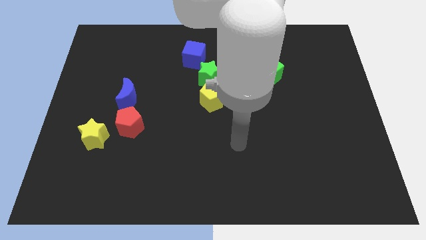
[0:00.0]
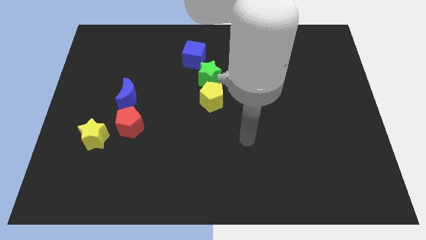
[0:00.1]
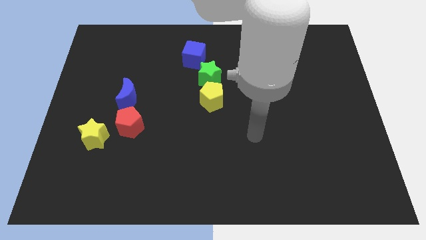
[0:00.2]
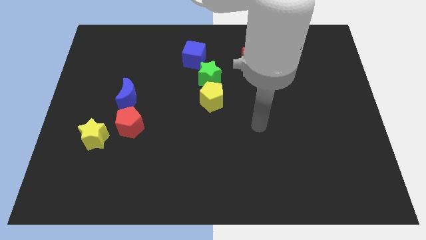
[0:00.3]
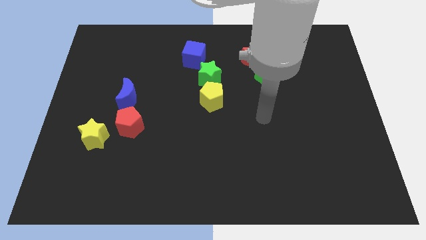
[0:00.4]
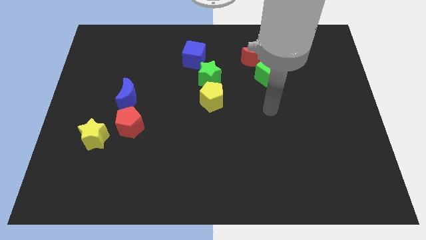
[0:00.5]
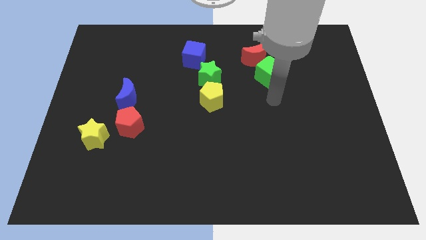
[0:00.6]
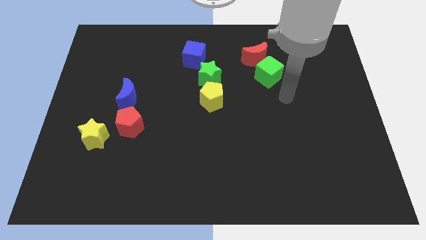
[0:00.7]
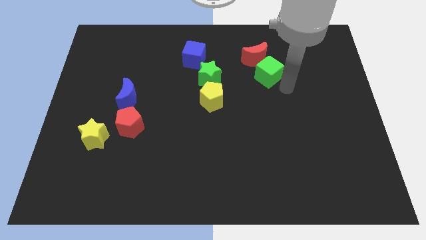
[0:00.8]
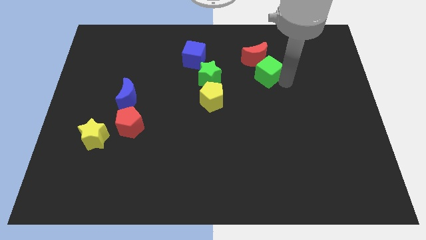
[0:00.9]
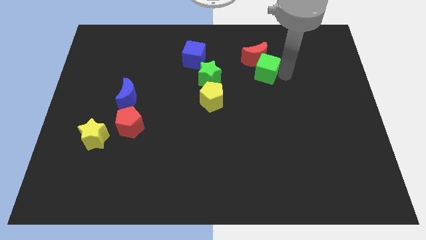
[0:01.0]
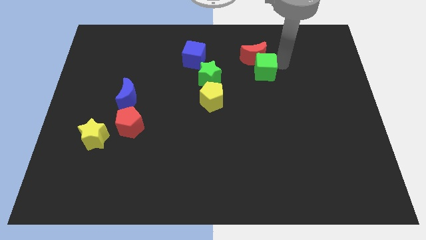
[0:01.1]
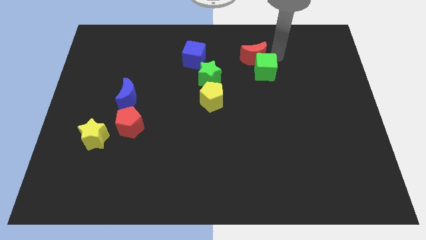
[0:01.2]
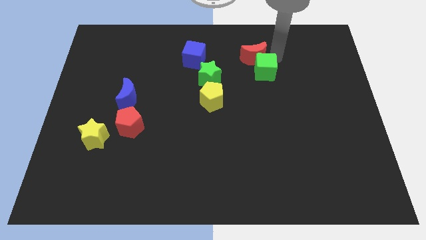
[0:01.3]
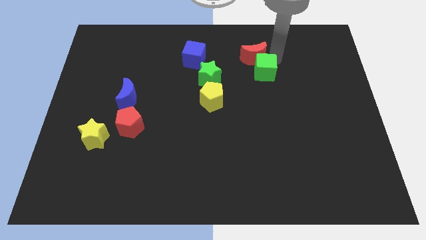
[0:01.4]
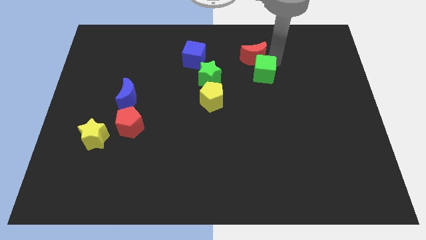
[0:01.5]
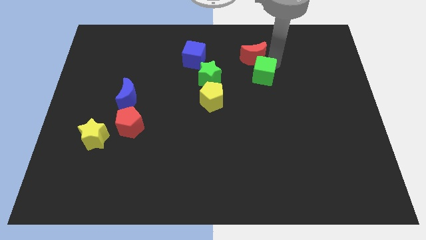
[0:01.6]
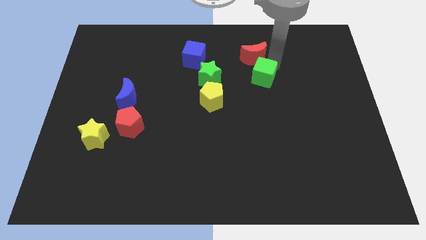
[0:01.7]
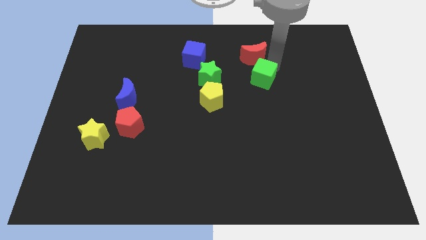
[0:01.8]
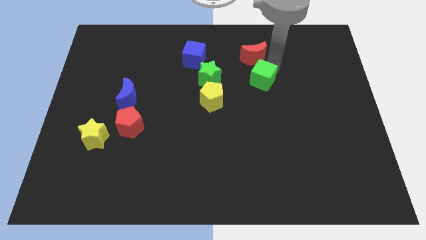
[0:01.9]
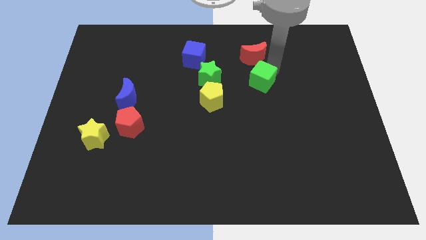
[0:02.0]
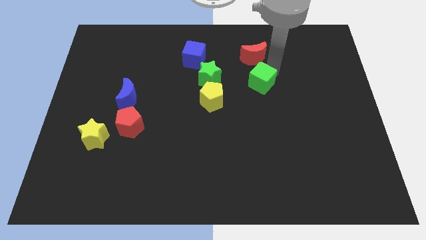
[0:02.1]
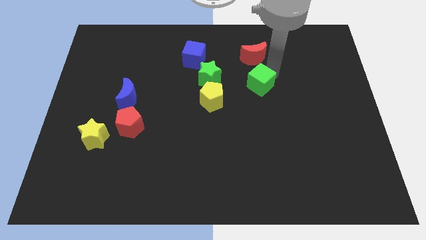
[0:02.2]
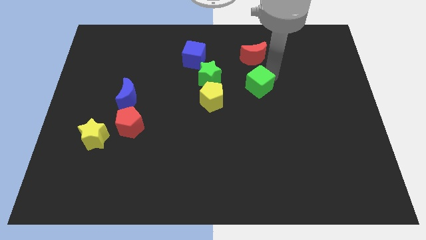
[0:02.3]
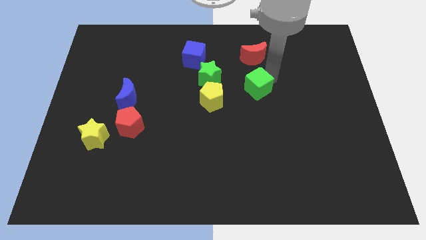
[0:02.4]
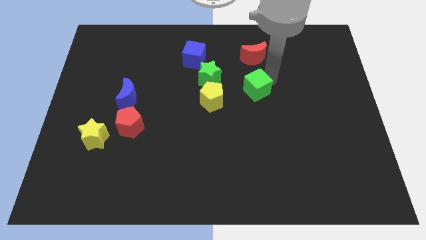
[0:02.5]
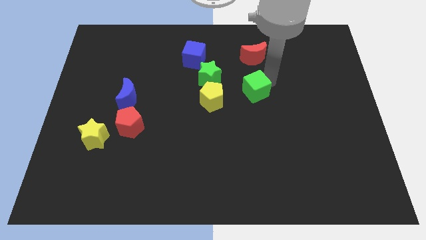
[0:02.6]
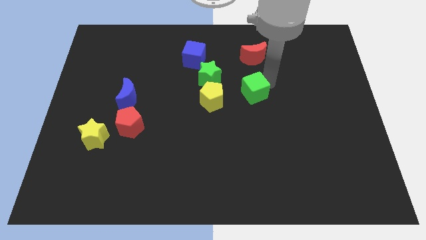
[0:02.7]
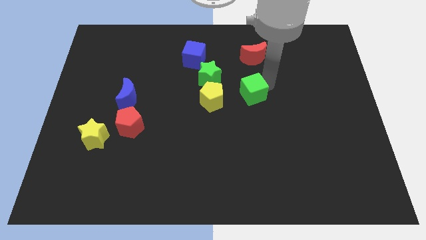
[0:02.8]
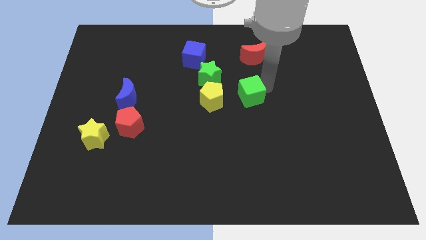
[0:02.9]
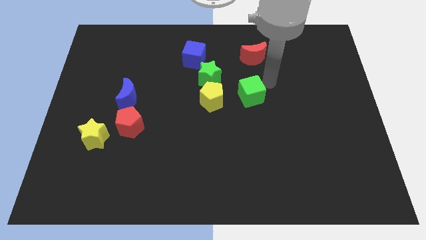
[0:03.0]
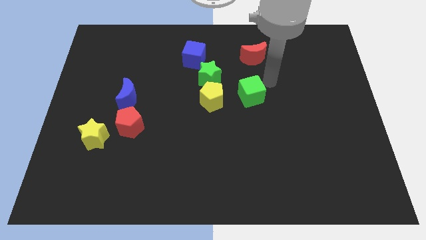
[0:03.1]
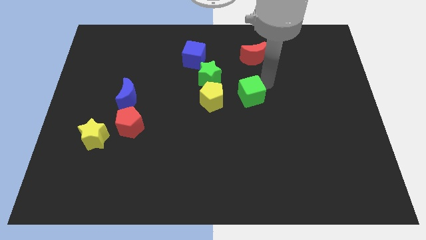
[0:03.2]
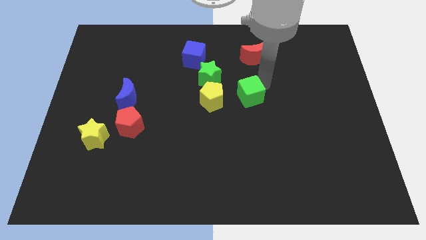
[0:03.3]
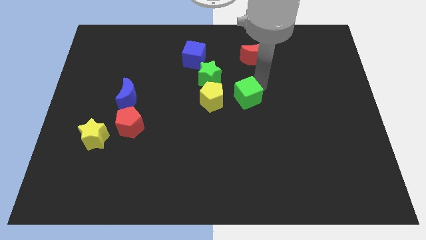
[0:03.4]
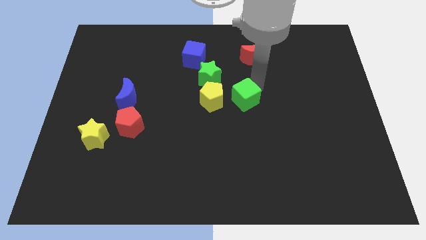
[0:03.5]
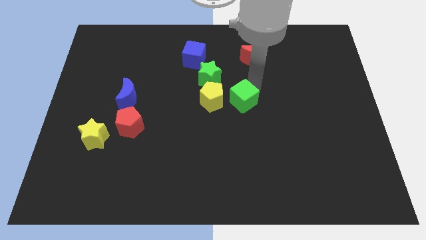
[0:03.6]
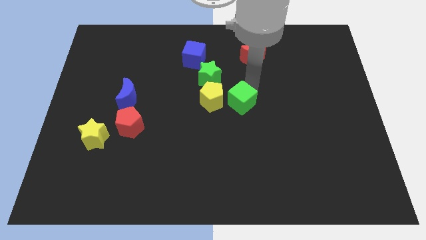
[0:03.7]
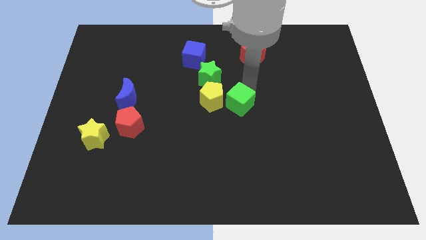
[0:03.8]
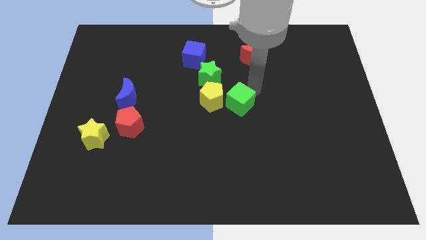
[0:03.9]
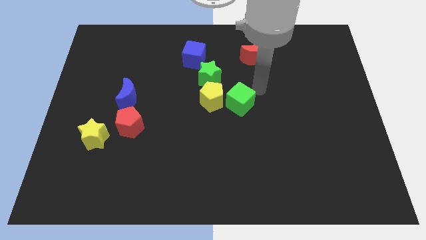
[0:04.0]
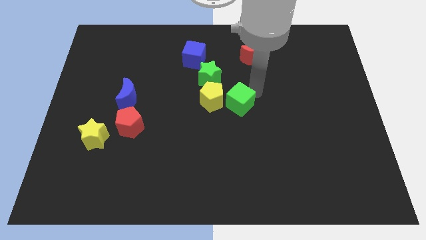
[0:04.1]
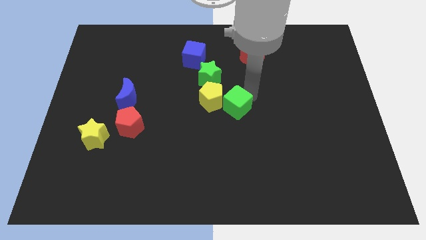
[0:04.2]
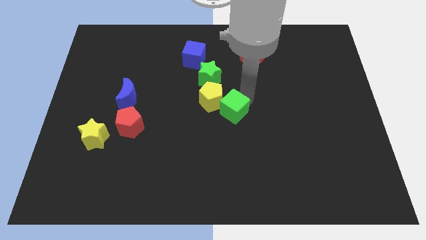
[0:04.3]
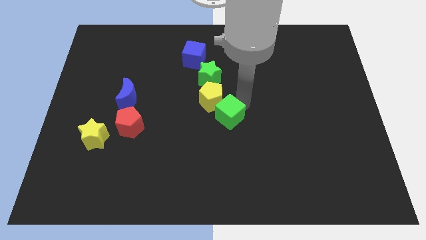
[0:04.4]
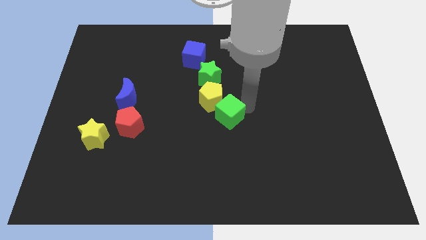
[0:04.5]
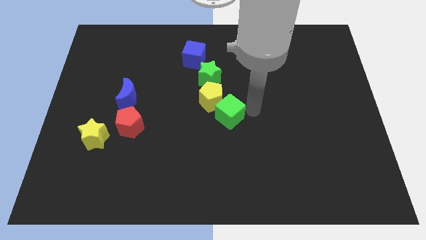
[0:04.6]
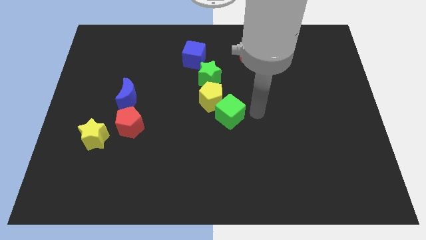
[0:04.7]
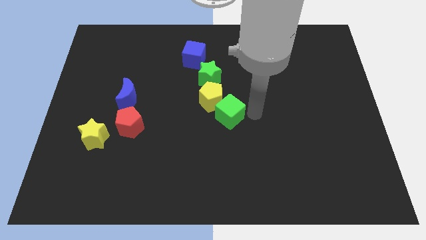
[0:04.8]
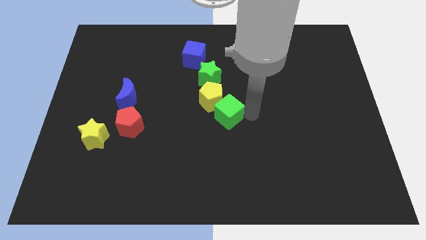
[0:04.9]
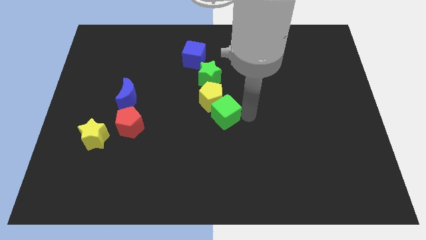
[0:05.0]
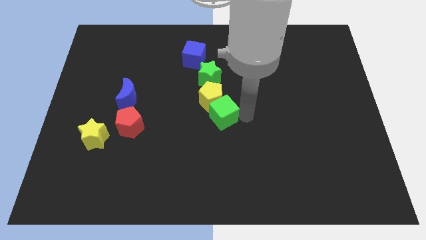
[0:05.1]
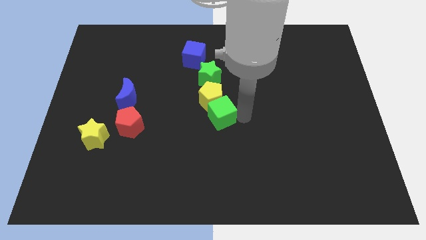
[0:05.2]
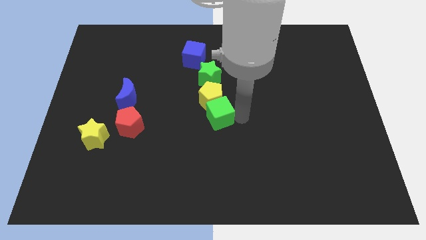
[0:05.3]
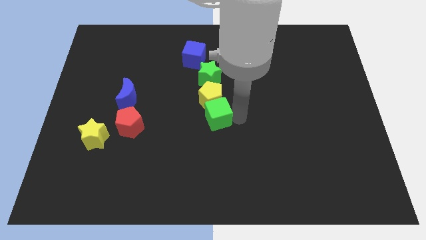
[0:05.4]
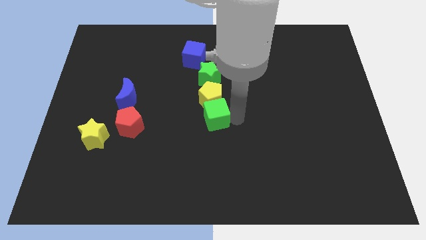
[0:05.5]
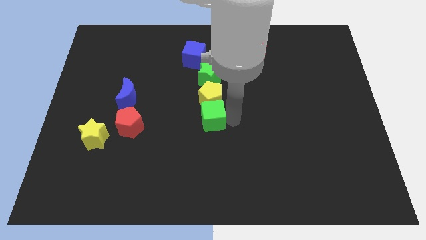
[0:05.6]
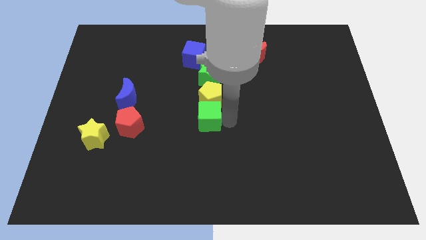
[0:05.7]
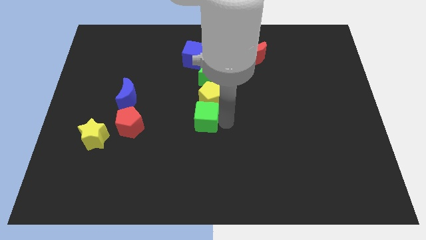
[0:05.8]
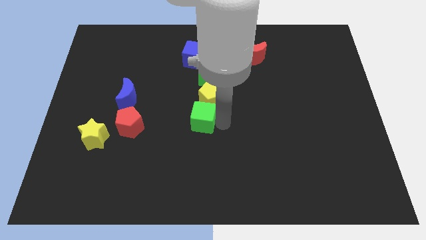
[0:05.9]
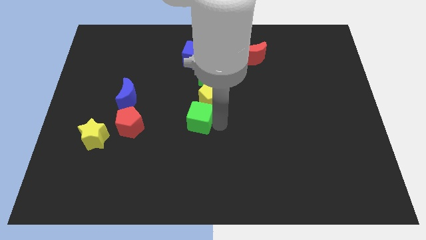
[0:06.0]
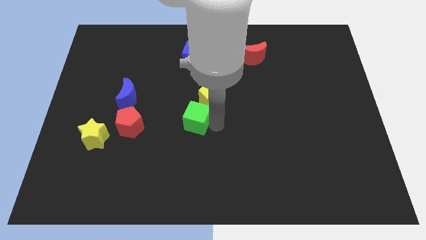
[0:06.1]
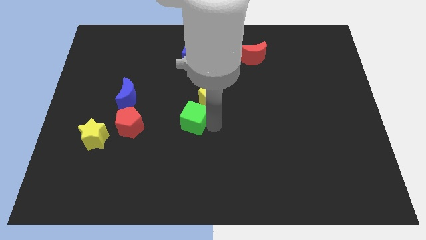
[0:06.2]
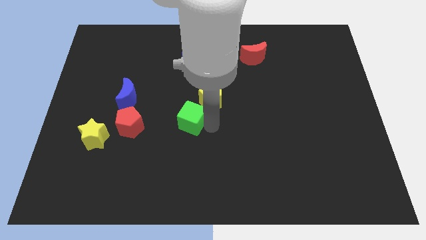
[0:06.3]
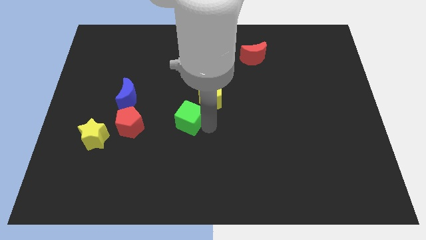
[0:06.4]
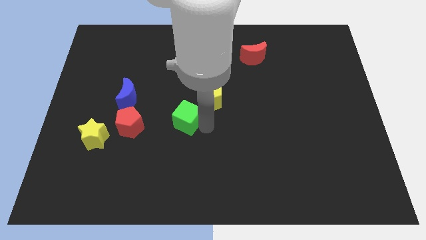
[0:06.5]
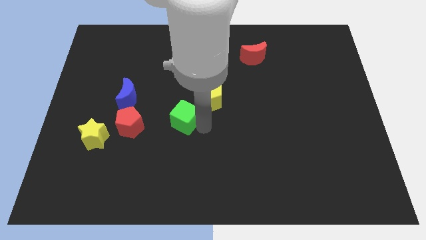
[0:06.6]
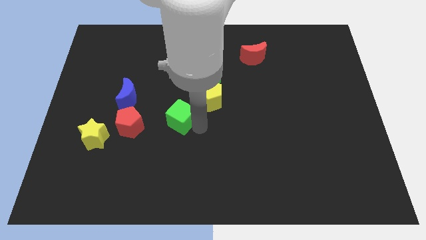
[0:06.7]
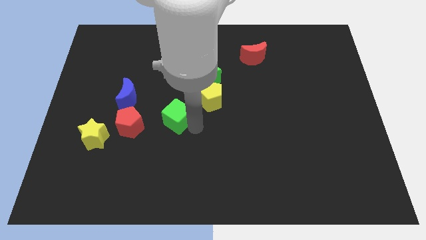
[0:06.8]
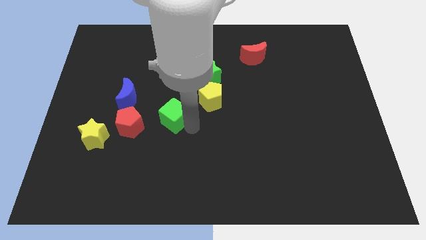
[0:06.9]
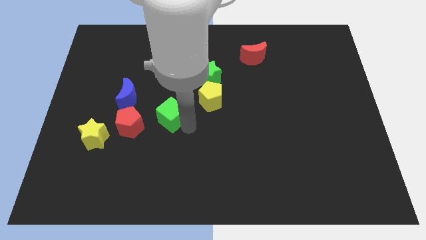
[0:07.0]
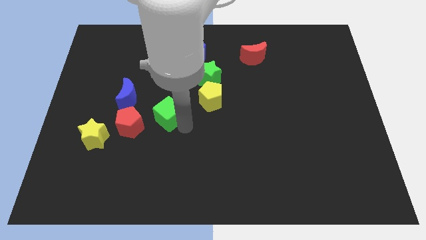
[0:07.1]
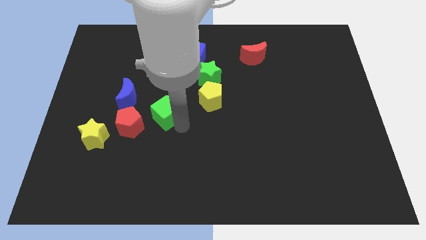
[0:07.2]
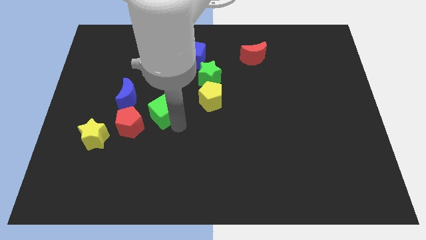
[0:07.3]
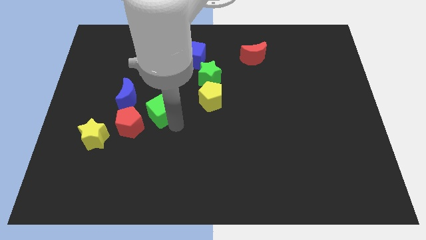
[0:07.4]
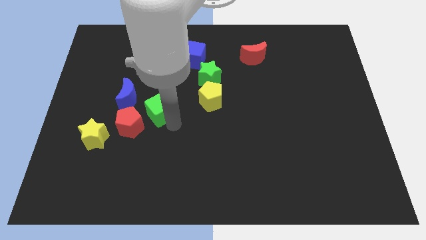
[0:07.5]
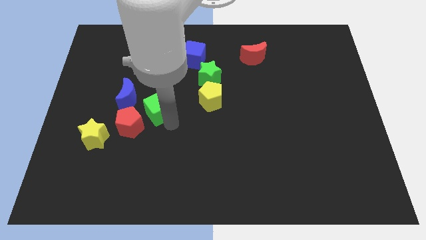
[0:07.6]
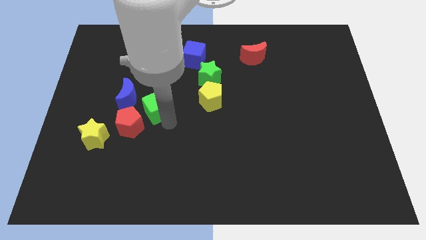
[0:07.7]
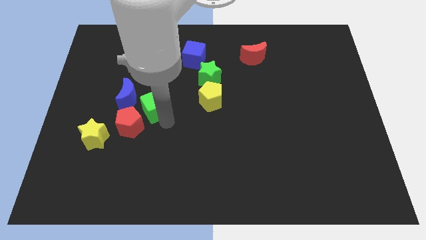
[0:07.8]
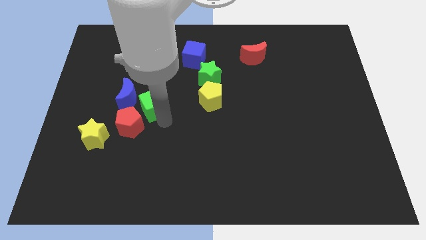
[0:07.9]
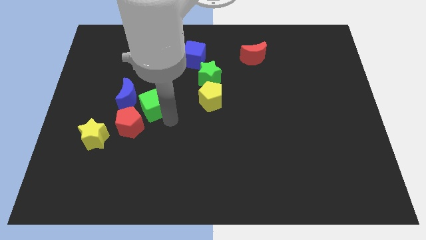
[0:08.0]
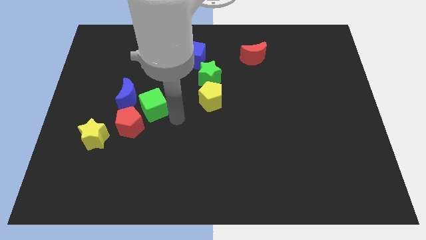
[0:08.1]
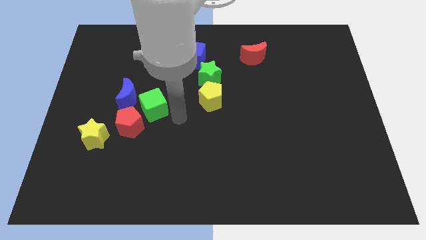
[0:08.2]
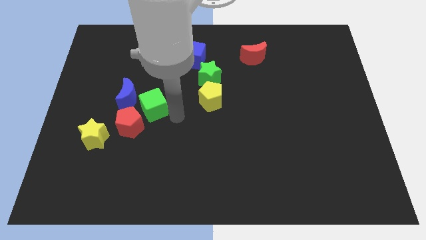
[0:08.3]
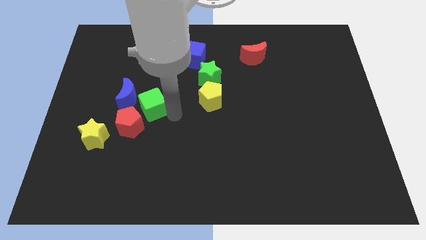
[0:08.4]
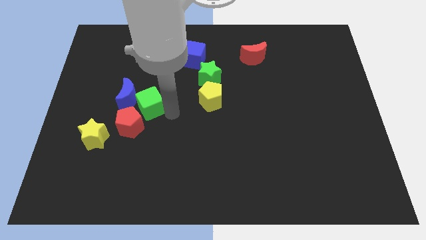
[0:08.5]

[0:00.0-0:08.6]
move the green cube close to the blue moon
